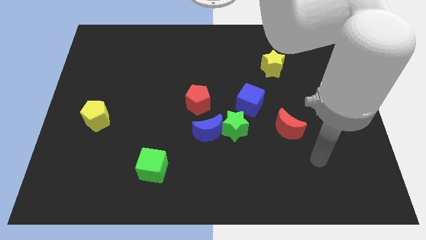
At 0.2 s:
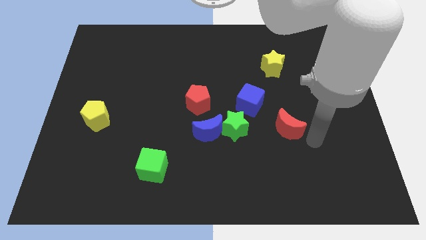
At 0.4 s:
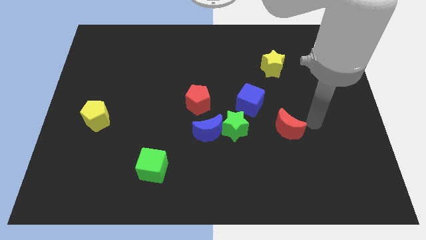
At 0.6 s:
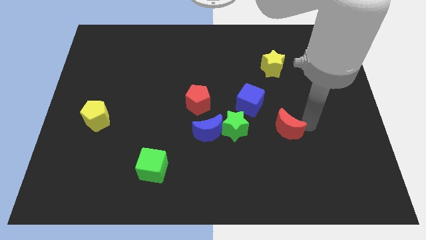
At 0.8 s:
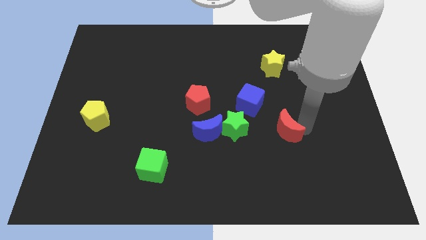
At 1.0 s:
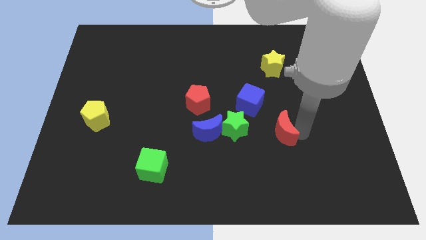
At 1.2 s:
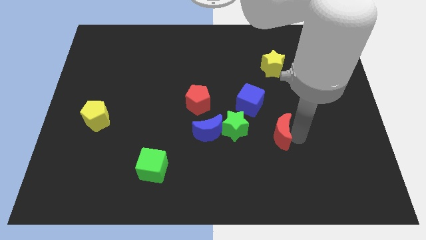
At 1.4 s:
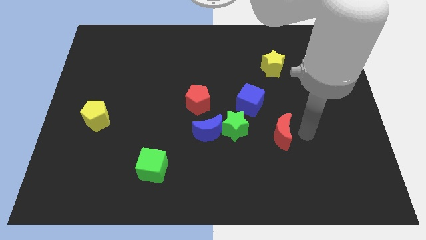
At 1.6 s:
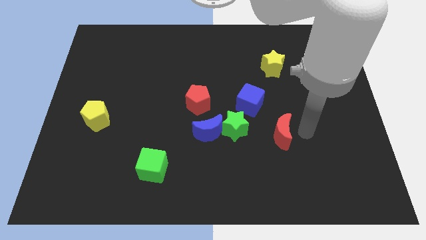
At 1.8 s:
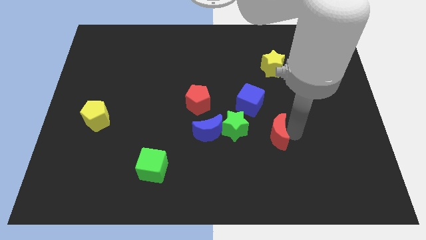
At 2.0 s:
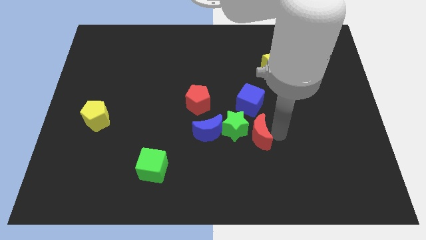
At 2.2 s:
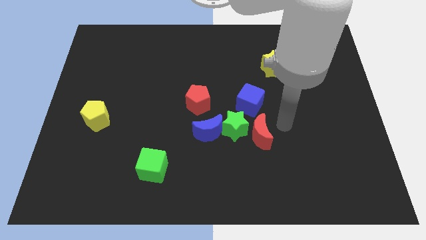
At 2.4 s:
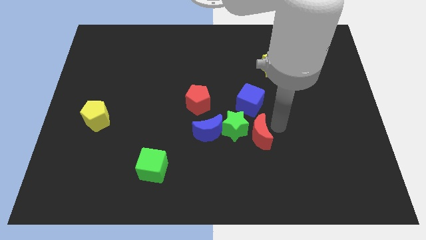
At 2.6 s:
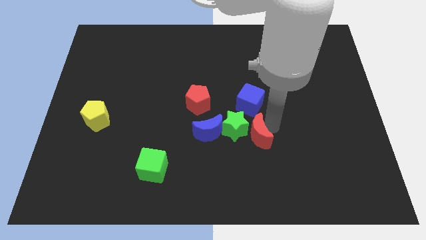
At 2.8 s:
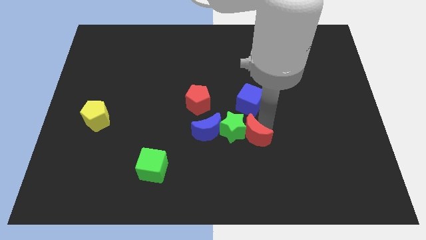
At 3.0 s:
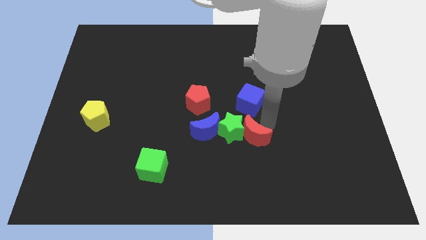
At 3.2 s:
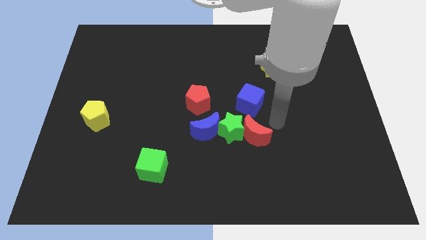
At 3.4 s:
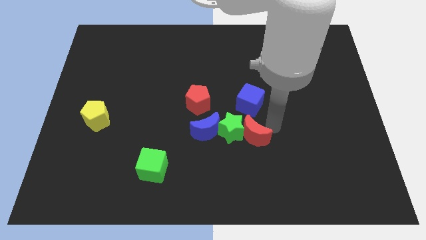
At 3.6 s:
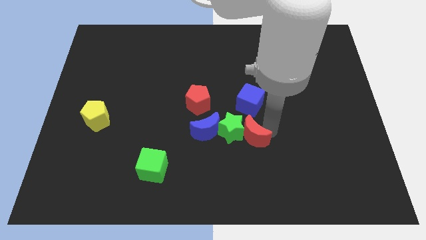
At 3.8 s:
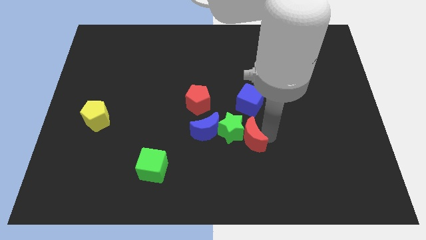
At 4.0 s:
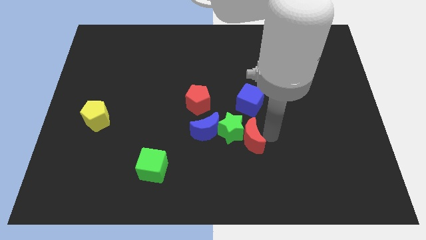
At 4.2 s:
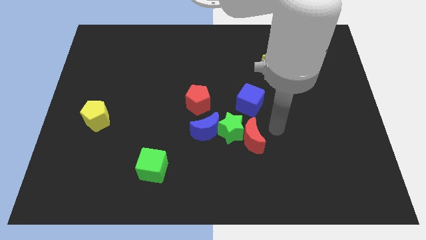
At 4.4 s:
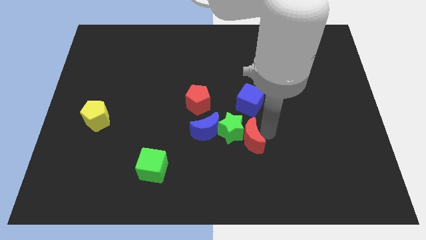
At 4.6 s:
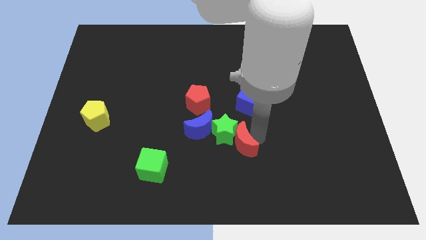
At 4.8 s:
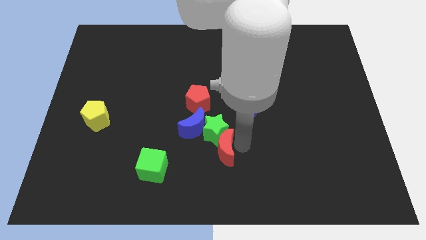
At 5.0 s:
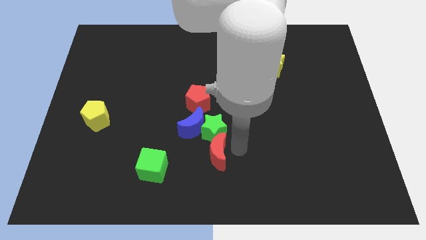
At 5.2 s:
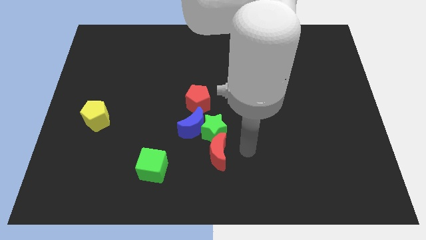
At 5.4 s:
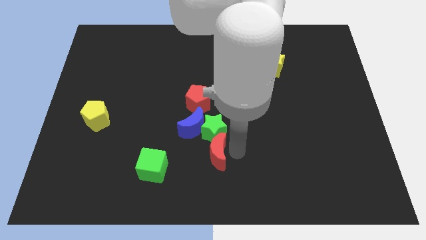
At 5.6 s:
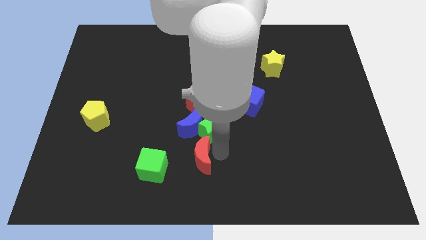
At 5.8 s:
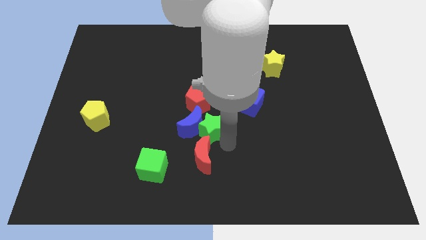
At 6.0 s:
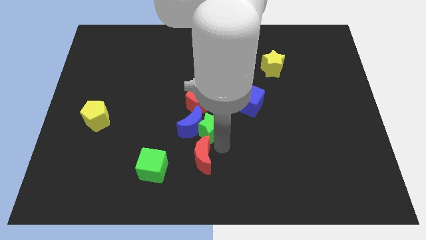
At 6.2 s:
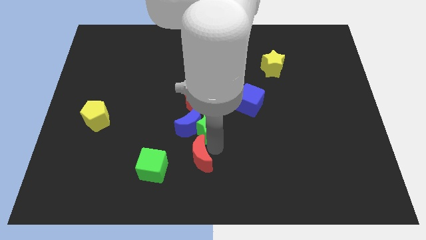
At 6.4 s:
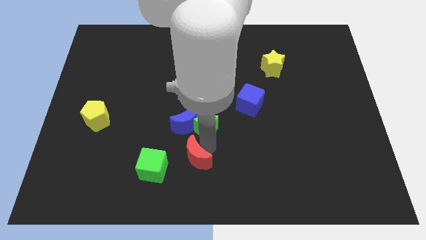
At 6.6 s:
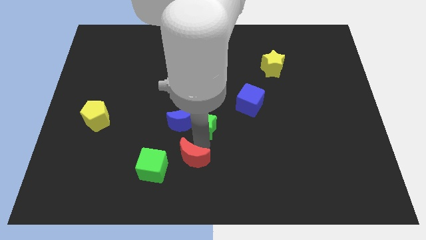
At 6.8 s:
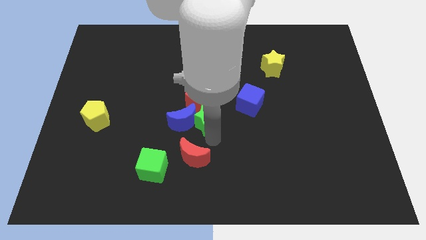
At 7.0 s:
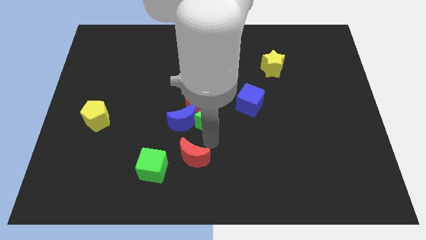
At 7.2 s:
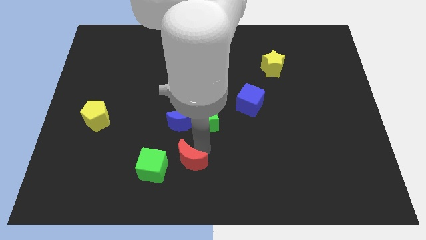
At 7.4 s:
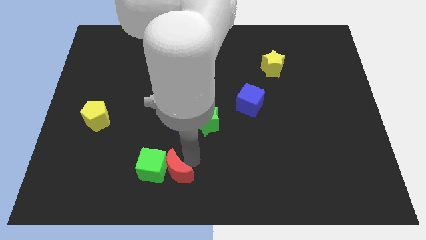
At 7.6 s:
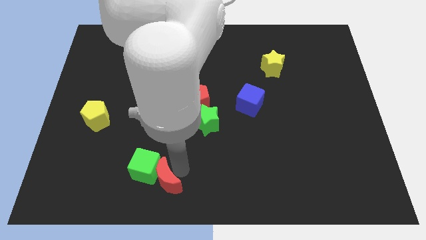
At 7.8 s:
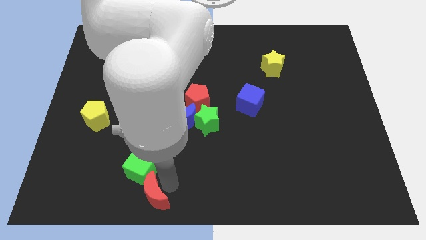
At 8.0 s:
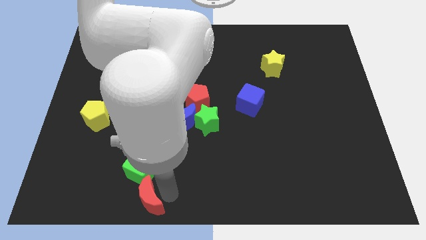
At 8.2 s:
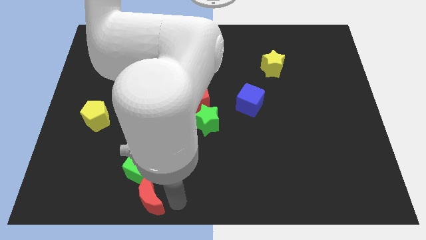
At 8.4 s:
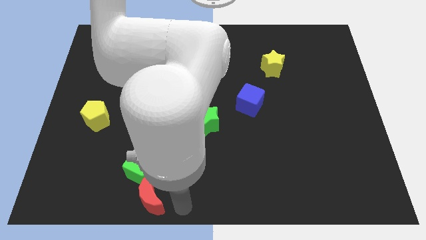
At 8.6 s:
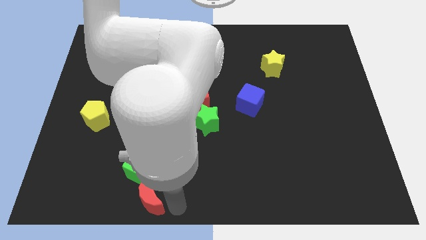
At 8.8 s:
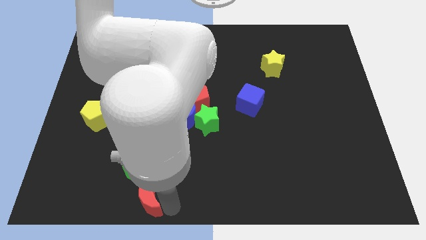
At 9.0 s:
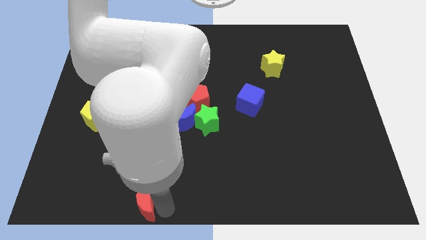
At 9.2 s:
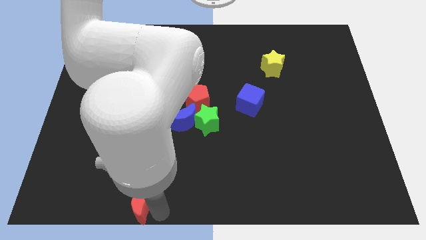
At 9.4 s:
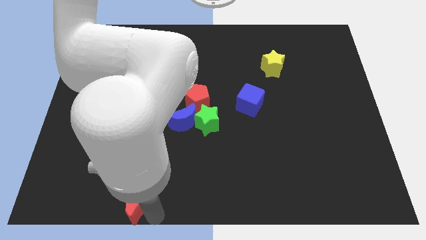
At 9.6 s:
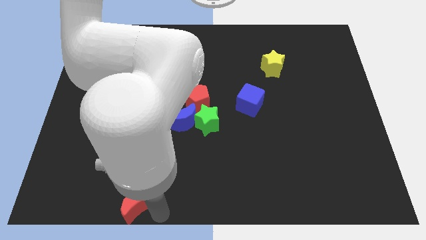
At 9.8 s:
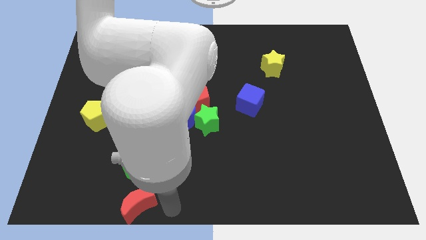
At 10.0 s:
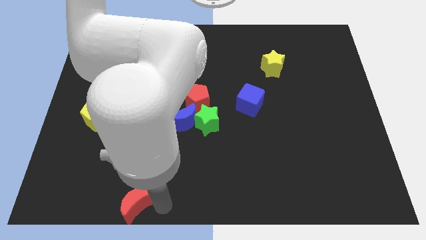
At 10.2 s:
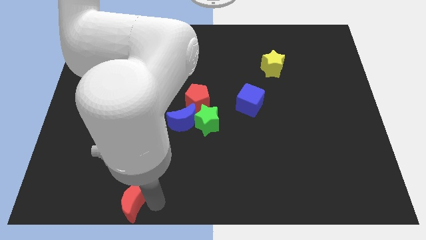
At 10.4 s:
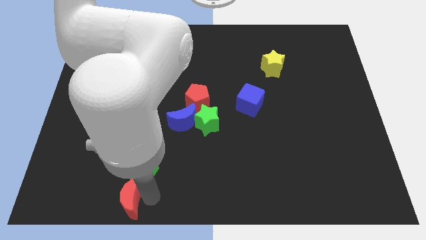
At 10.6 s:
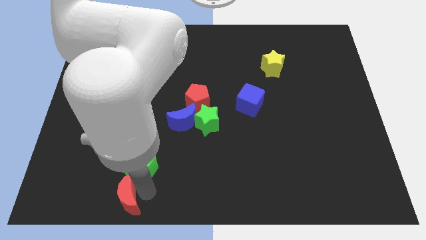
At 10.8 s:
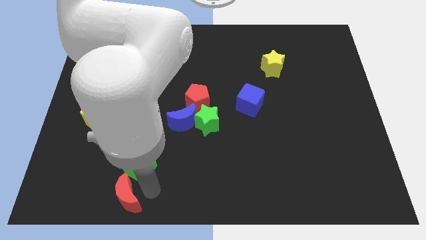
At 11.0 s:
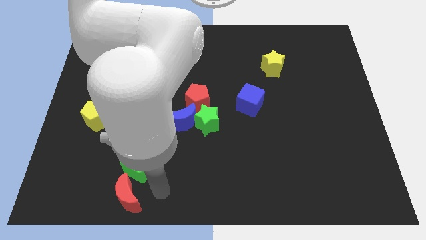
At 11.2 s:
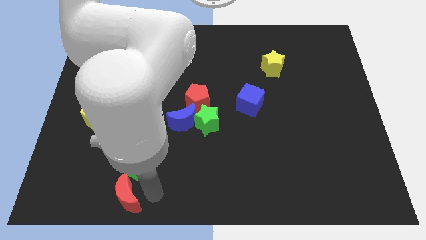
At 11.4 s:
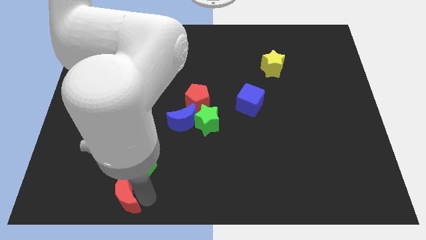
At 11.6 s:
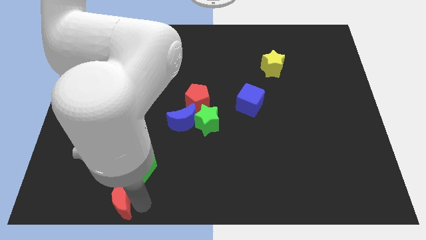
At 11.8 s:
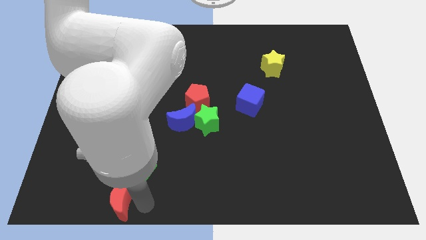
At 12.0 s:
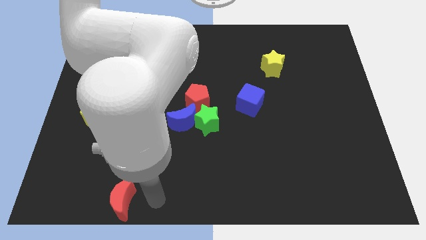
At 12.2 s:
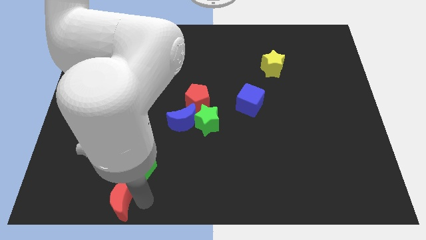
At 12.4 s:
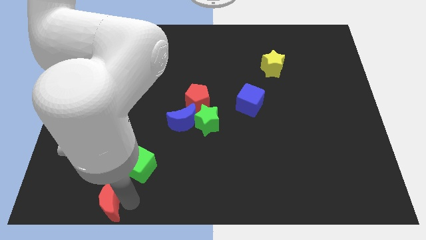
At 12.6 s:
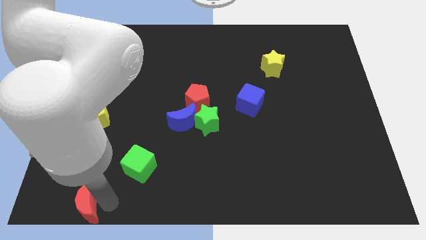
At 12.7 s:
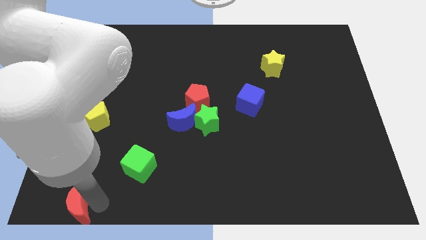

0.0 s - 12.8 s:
push the red moon to the bottom left corner

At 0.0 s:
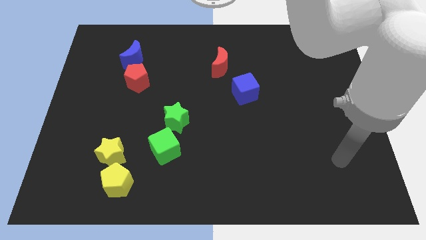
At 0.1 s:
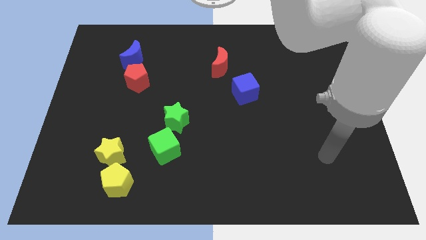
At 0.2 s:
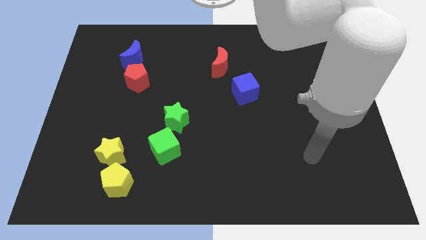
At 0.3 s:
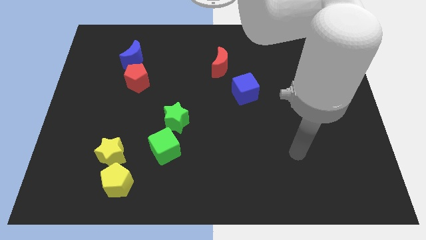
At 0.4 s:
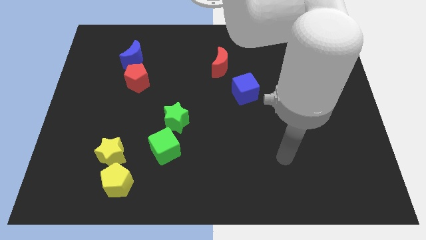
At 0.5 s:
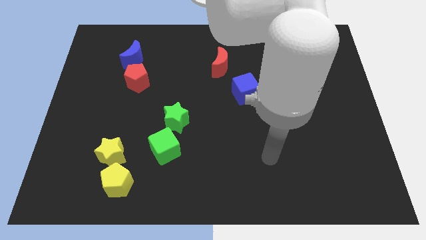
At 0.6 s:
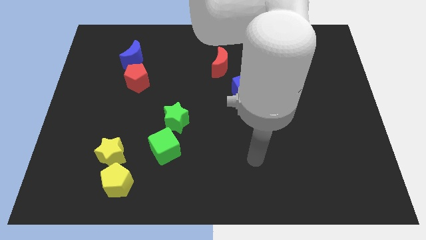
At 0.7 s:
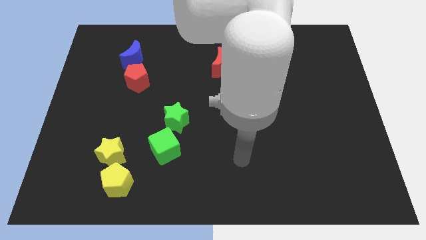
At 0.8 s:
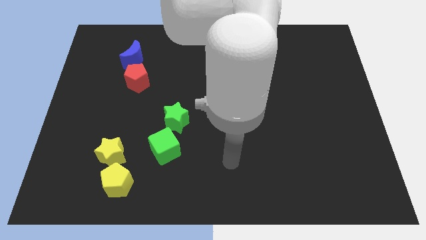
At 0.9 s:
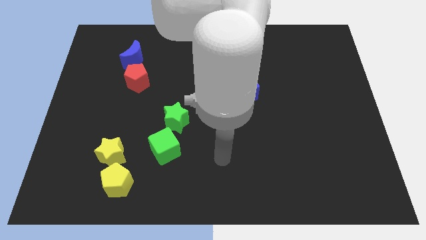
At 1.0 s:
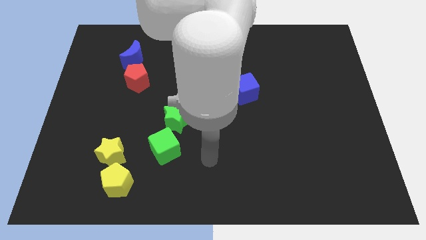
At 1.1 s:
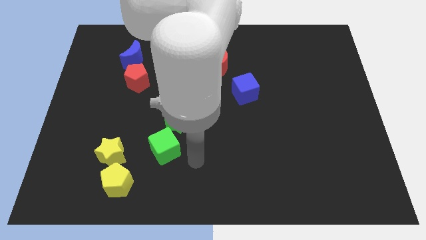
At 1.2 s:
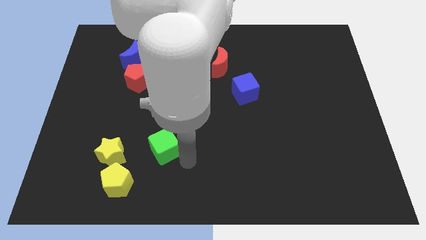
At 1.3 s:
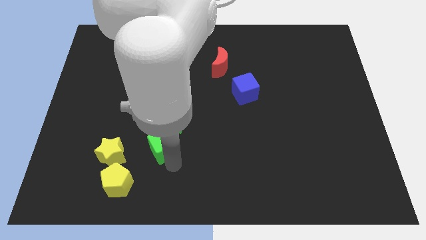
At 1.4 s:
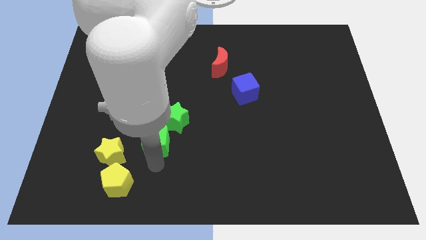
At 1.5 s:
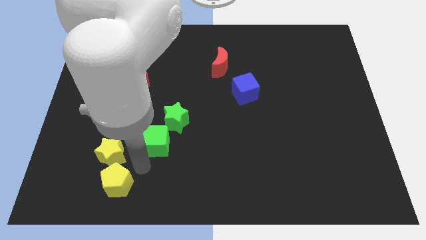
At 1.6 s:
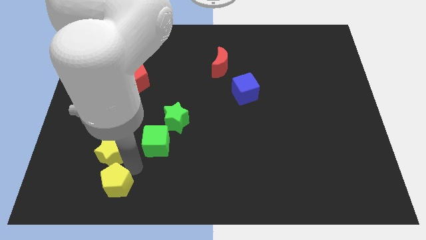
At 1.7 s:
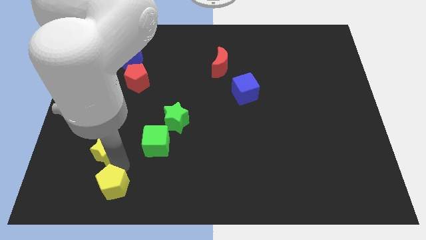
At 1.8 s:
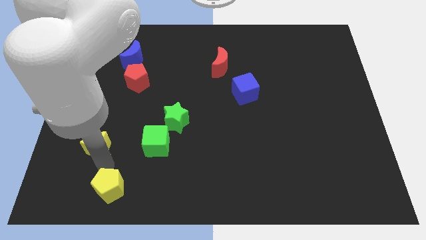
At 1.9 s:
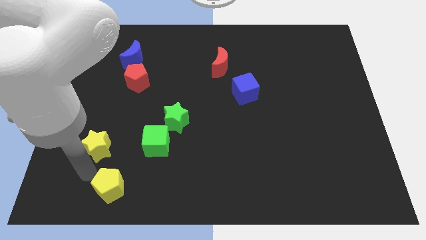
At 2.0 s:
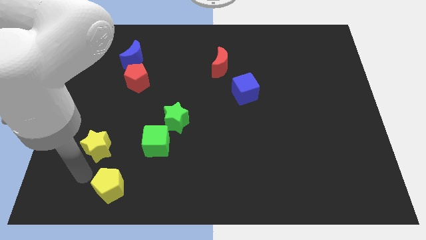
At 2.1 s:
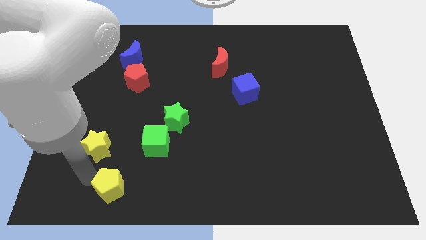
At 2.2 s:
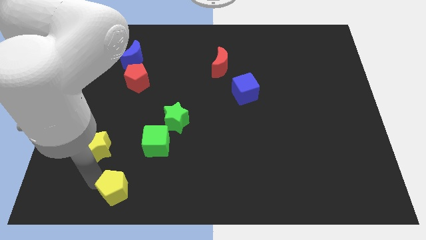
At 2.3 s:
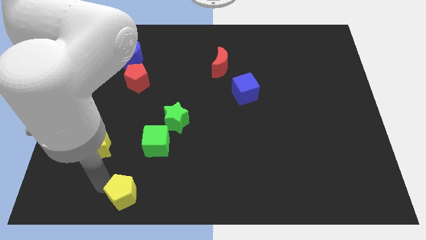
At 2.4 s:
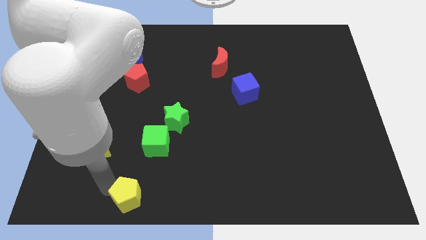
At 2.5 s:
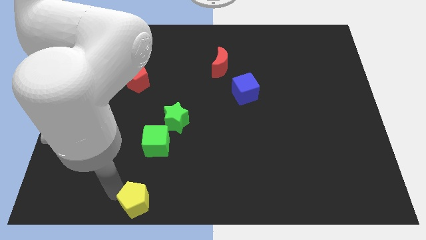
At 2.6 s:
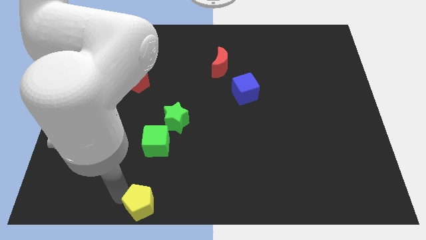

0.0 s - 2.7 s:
put the yellow pentagon to the bottom
